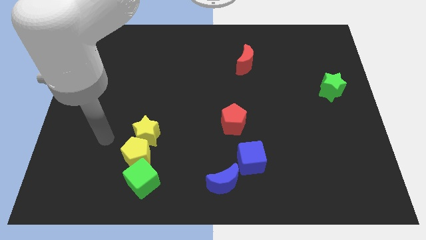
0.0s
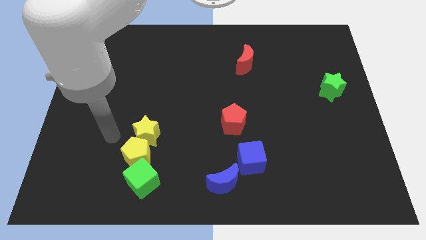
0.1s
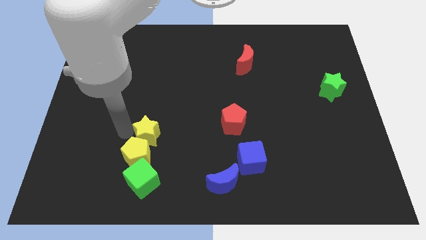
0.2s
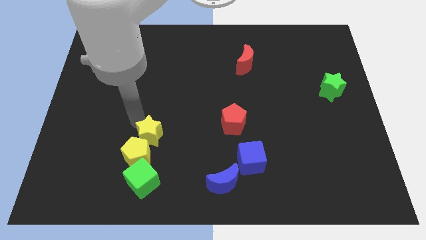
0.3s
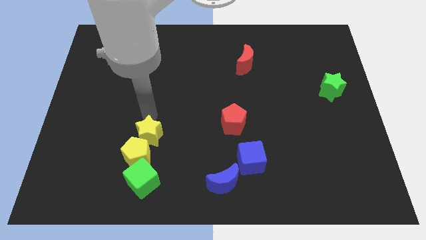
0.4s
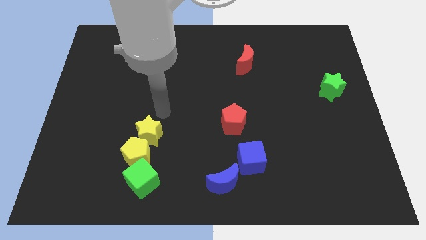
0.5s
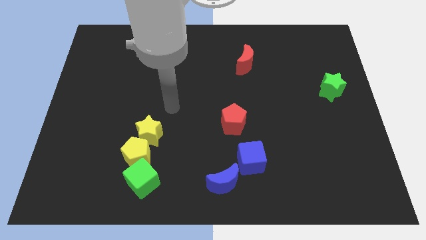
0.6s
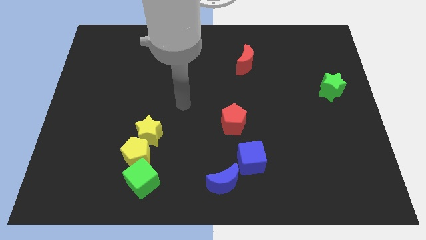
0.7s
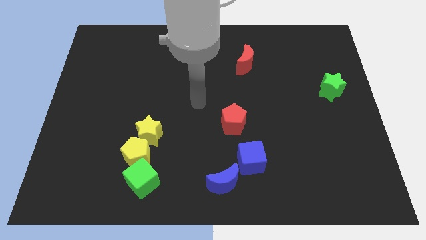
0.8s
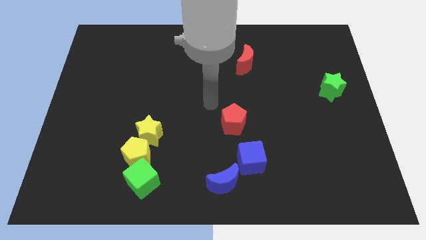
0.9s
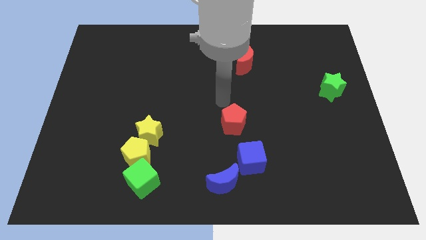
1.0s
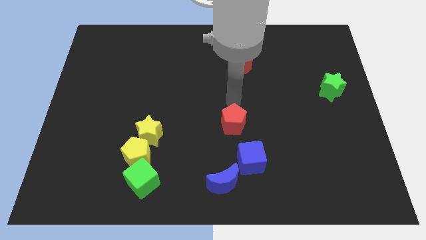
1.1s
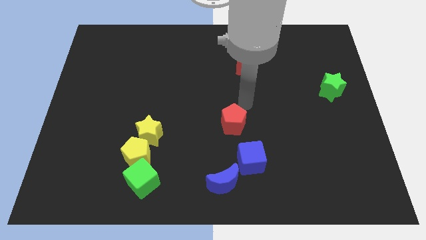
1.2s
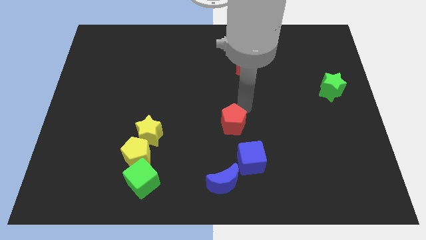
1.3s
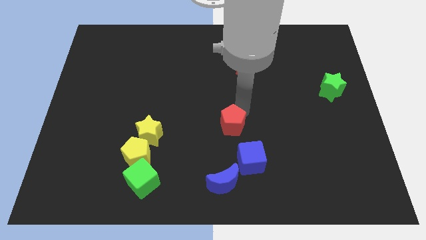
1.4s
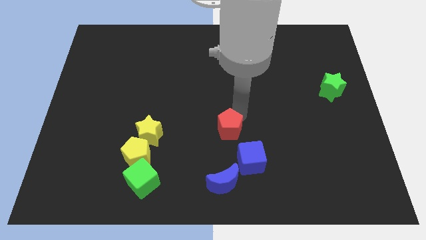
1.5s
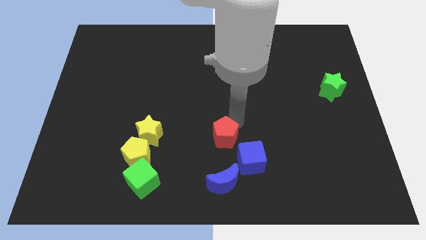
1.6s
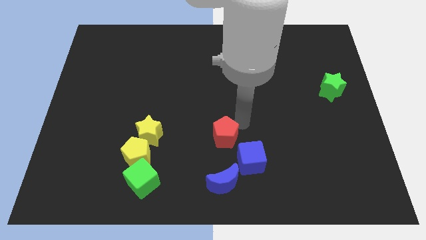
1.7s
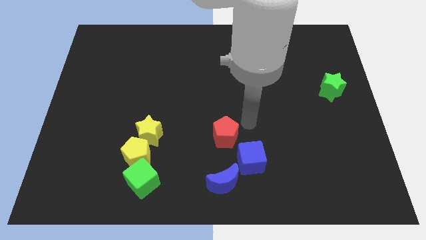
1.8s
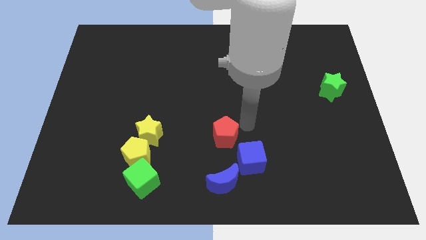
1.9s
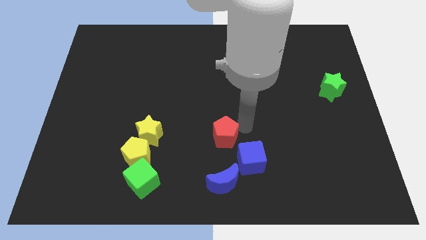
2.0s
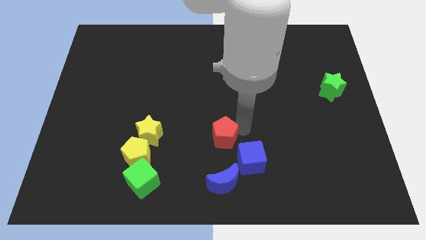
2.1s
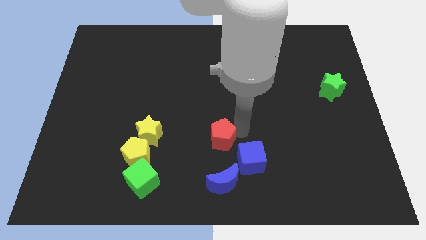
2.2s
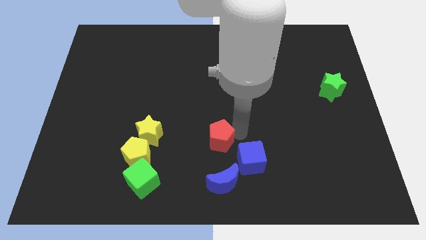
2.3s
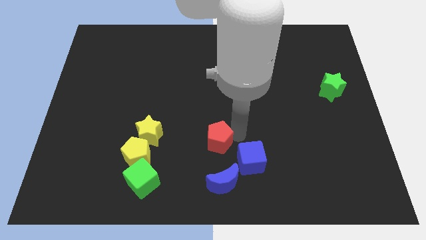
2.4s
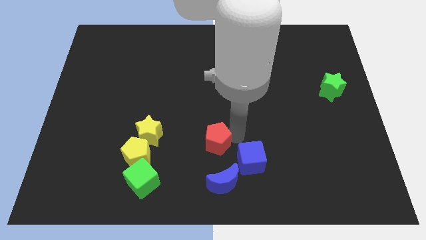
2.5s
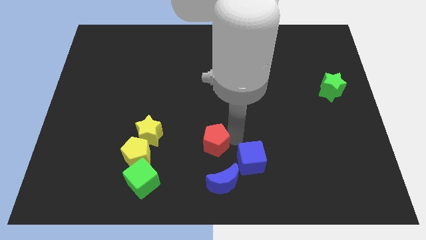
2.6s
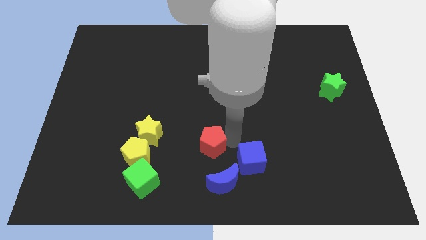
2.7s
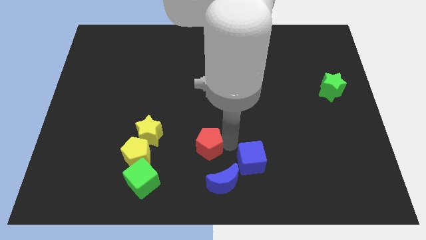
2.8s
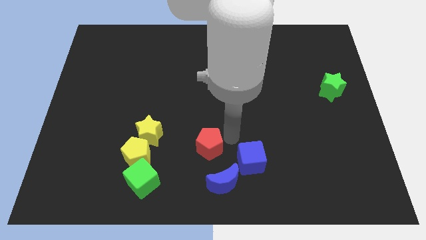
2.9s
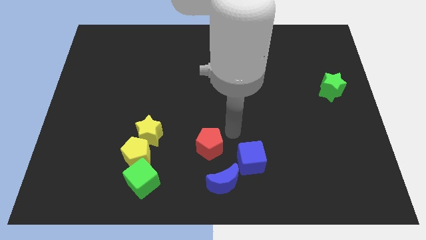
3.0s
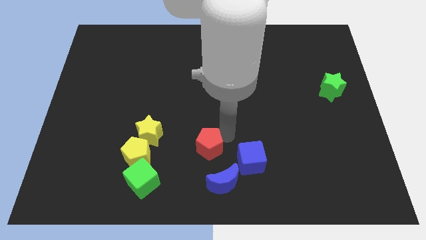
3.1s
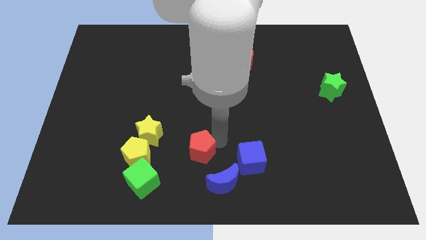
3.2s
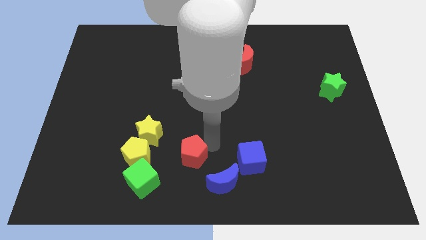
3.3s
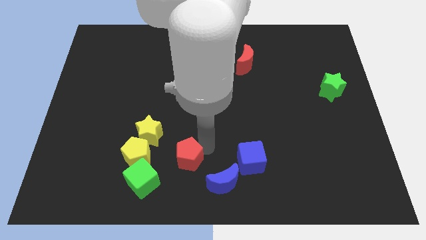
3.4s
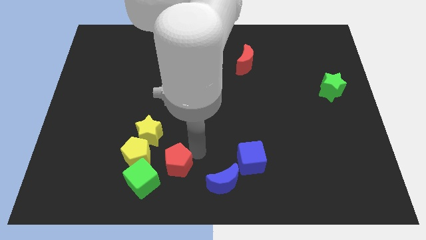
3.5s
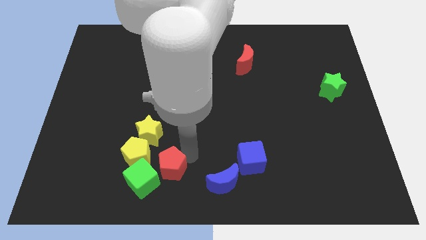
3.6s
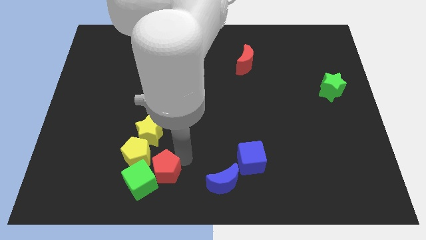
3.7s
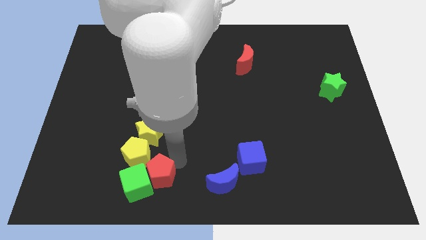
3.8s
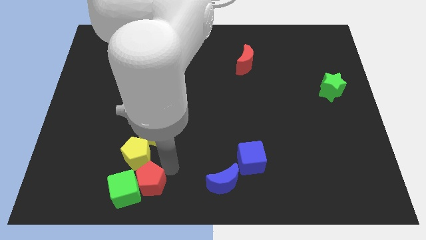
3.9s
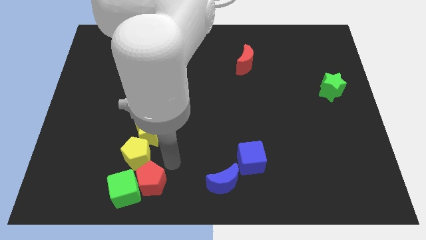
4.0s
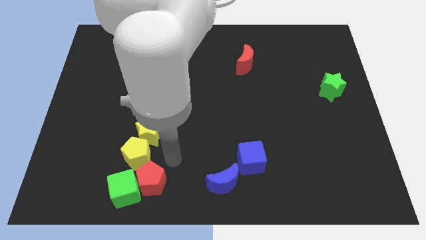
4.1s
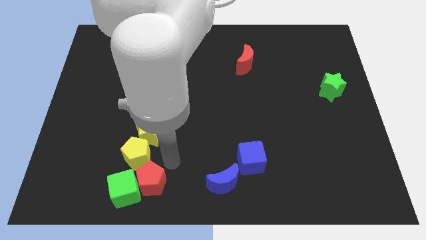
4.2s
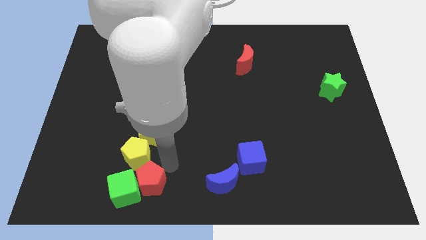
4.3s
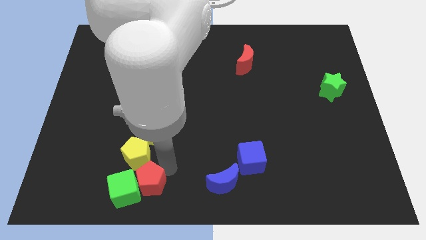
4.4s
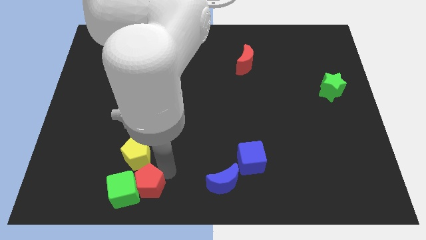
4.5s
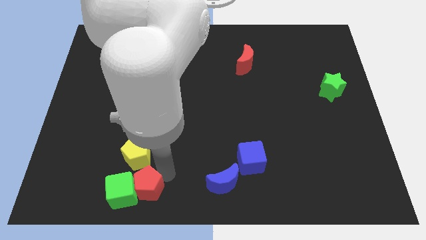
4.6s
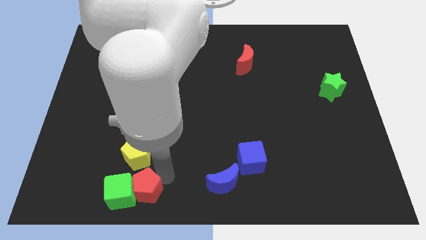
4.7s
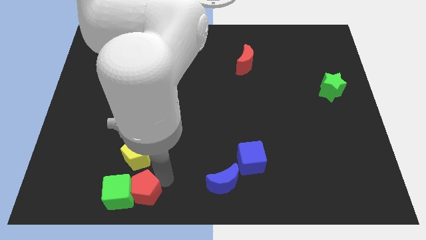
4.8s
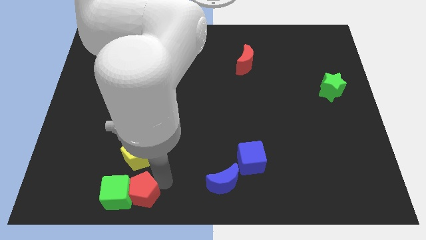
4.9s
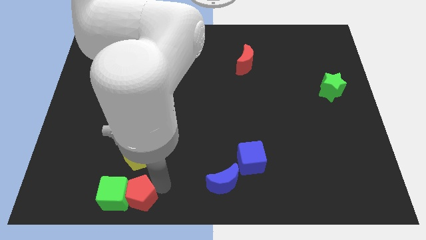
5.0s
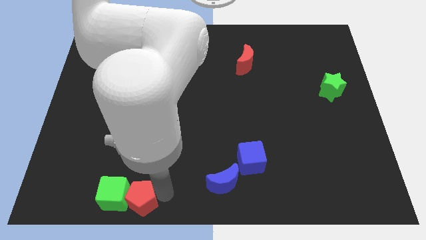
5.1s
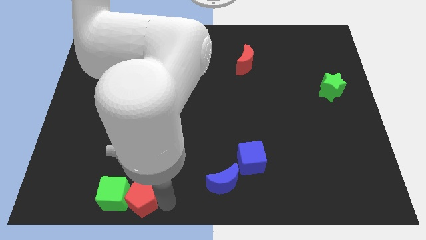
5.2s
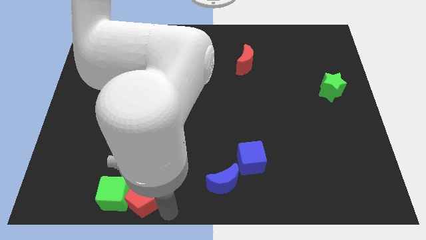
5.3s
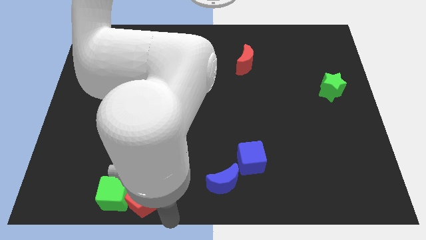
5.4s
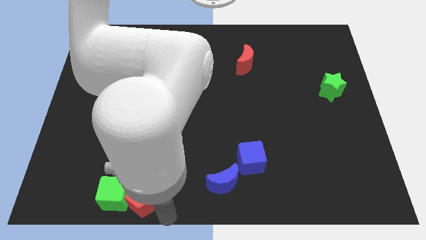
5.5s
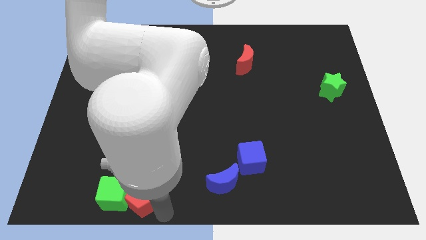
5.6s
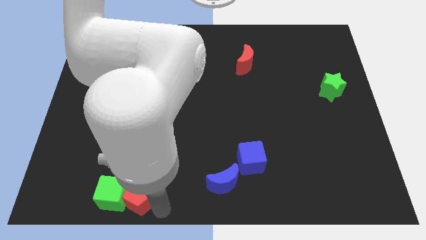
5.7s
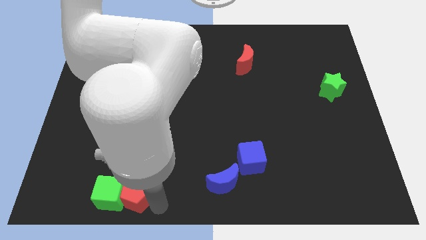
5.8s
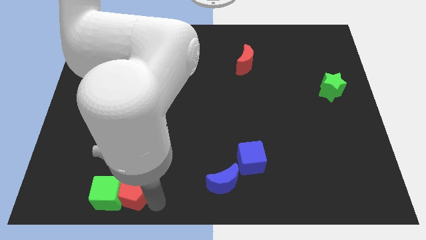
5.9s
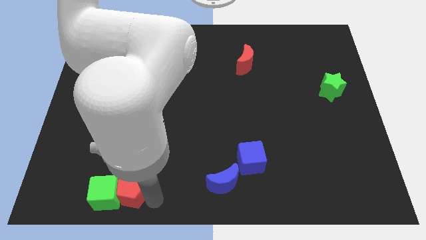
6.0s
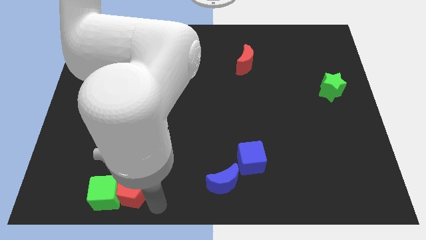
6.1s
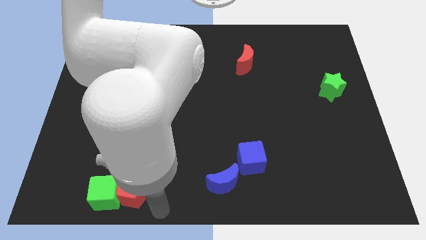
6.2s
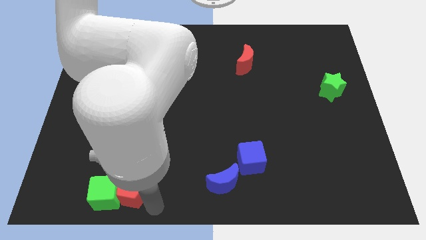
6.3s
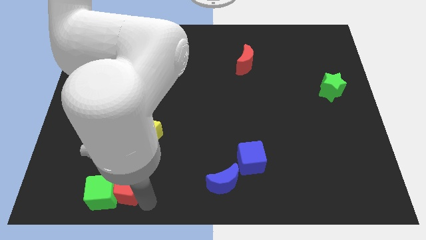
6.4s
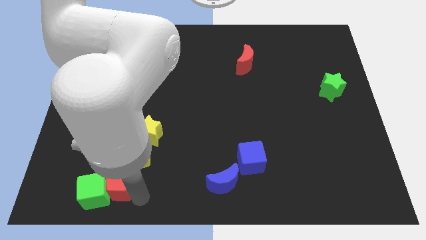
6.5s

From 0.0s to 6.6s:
push the red pentagon to the bottom left side of the yellow pentagon
